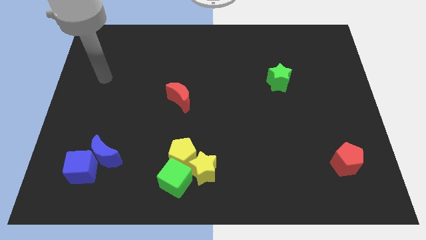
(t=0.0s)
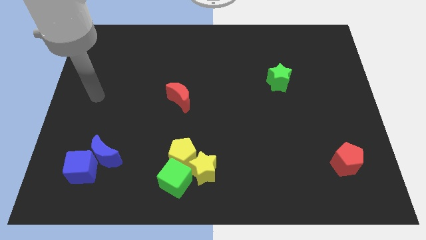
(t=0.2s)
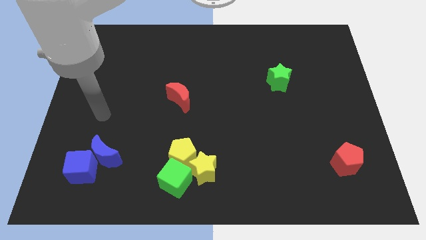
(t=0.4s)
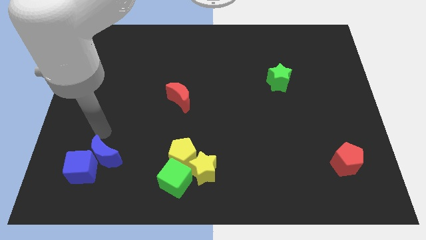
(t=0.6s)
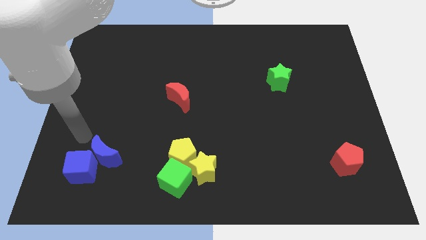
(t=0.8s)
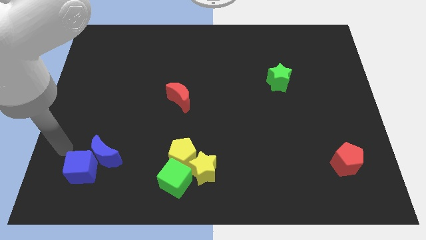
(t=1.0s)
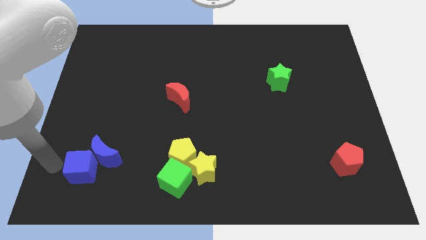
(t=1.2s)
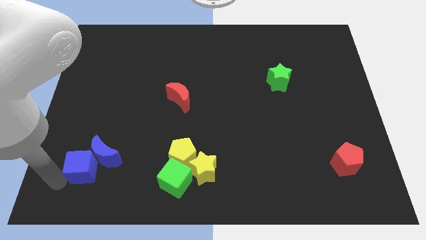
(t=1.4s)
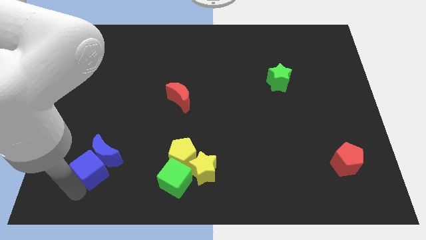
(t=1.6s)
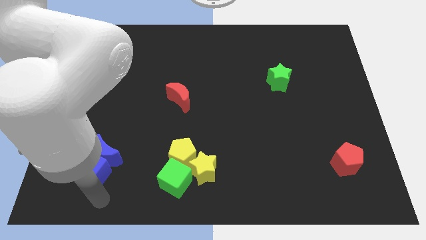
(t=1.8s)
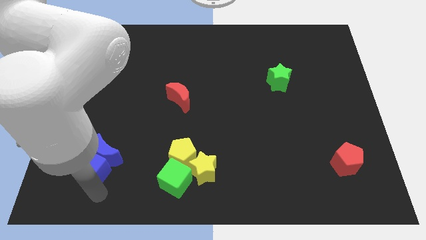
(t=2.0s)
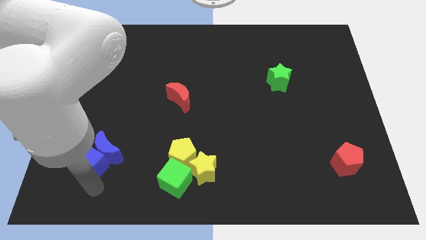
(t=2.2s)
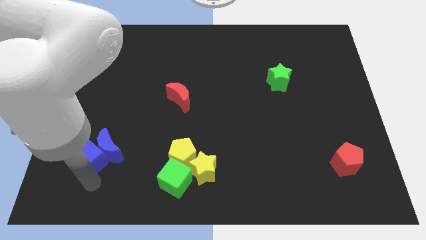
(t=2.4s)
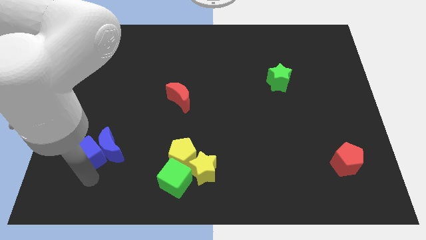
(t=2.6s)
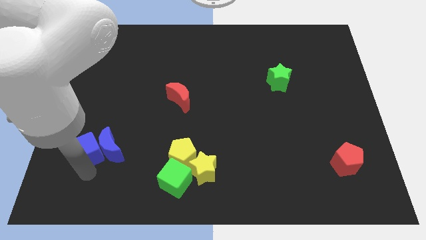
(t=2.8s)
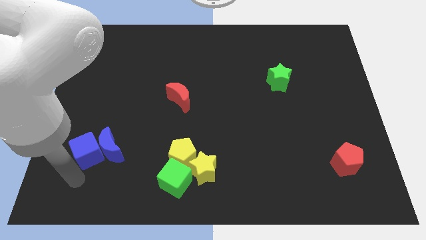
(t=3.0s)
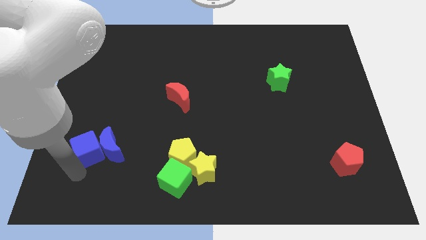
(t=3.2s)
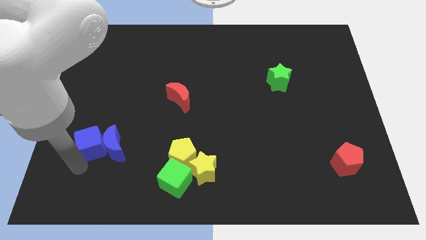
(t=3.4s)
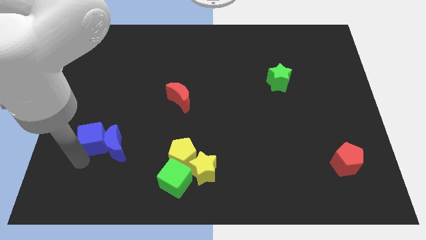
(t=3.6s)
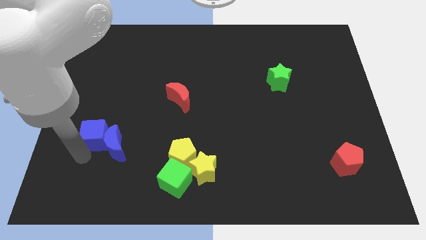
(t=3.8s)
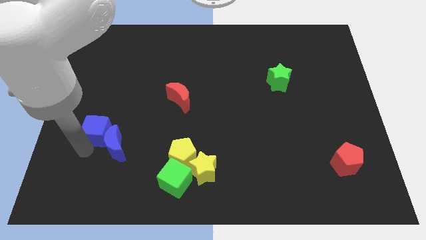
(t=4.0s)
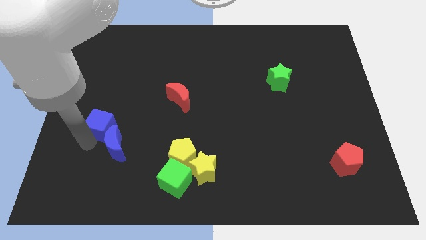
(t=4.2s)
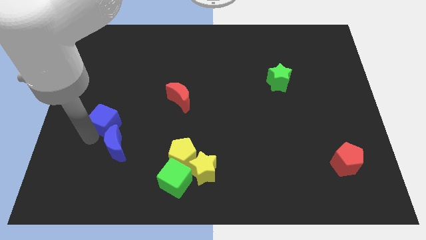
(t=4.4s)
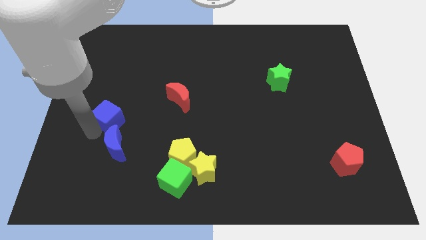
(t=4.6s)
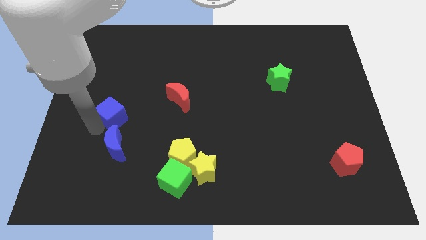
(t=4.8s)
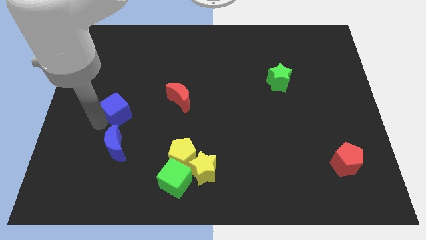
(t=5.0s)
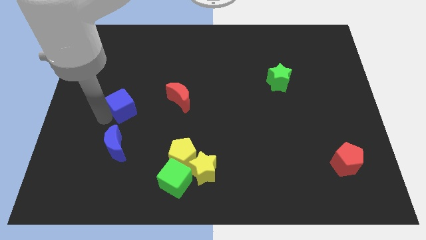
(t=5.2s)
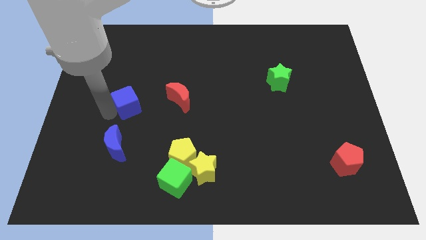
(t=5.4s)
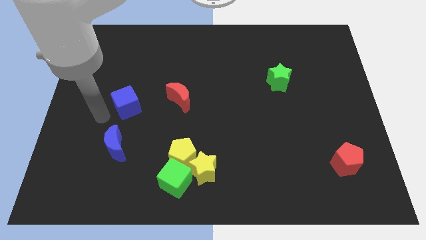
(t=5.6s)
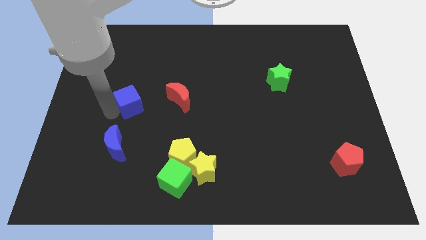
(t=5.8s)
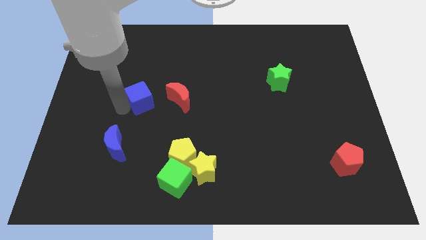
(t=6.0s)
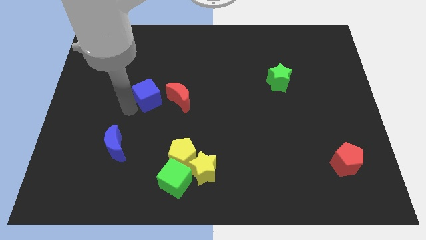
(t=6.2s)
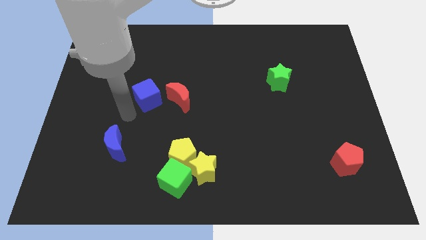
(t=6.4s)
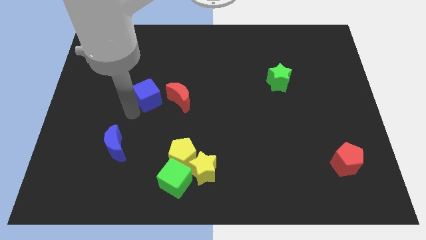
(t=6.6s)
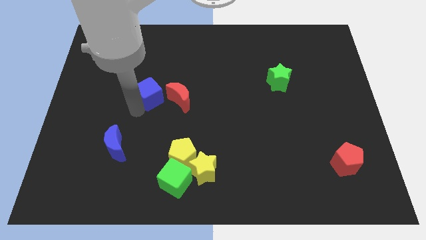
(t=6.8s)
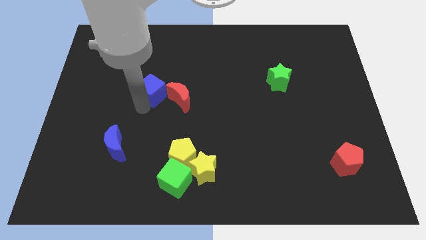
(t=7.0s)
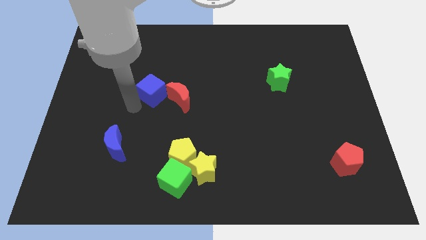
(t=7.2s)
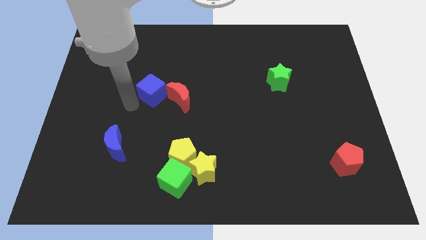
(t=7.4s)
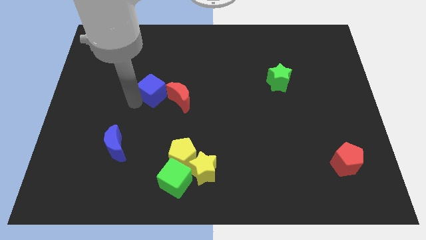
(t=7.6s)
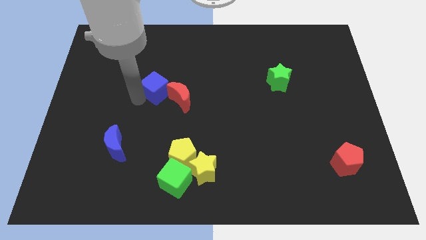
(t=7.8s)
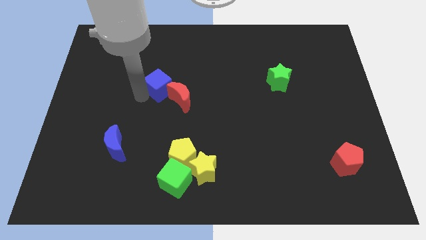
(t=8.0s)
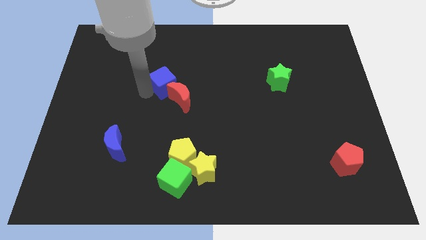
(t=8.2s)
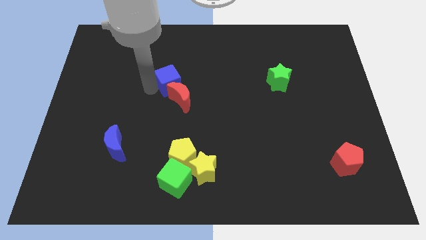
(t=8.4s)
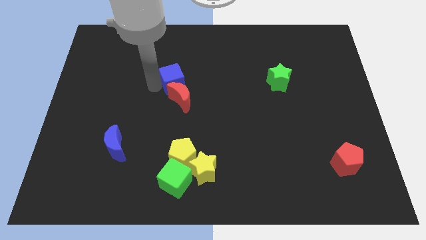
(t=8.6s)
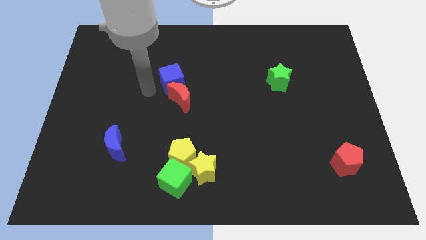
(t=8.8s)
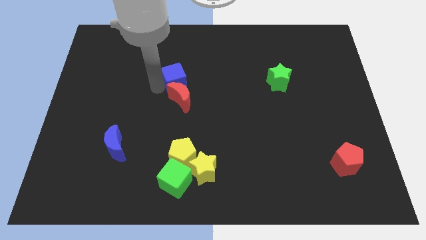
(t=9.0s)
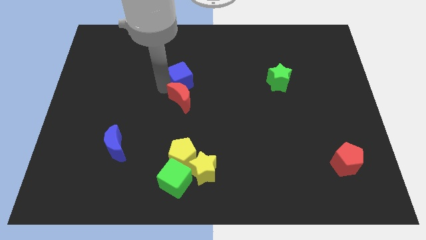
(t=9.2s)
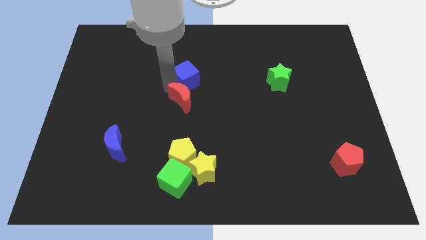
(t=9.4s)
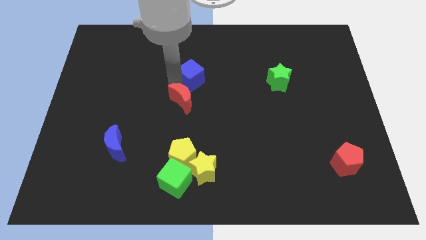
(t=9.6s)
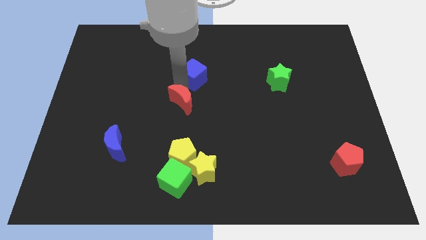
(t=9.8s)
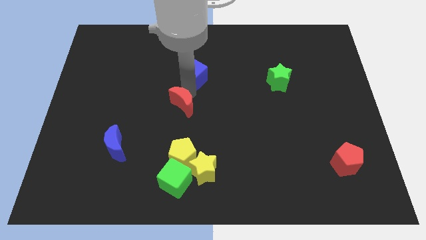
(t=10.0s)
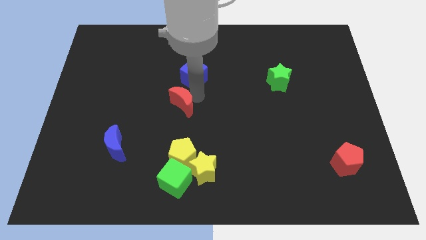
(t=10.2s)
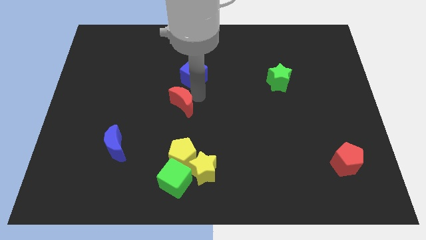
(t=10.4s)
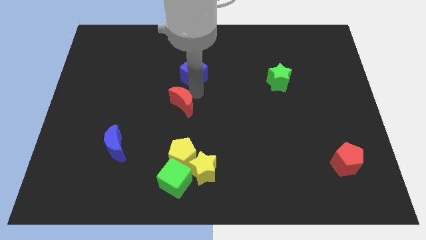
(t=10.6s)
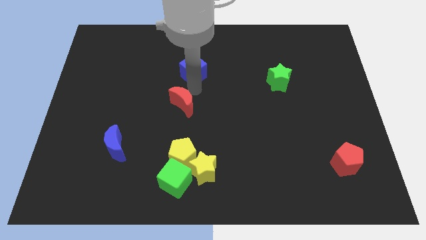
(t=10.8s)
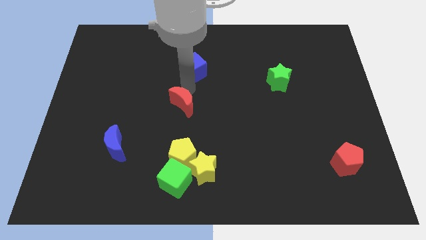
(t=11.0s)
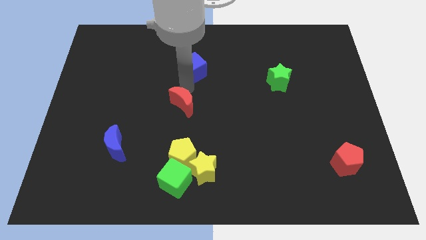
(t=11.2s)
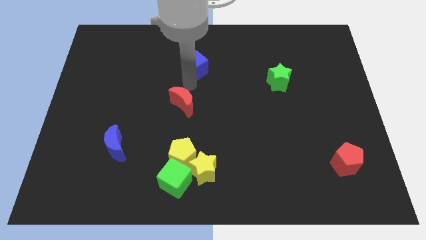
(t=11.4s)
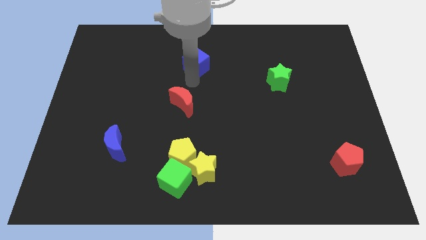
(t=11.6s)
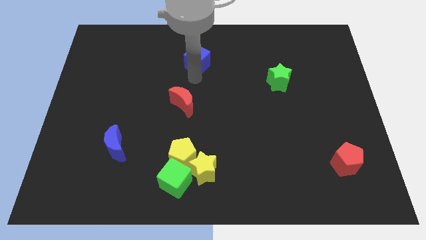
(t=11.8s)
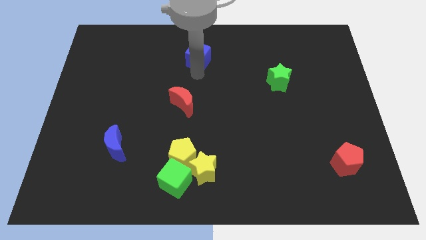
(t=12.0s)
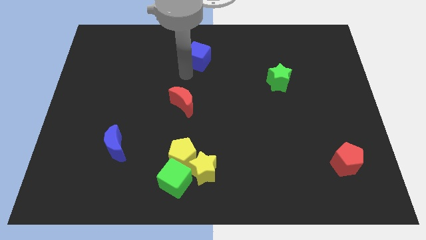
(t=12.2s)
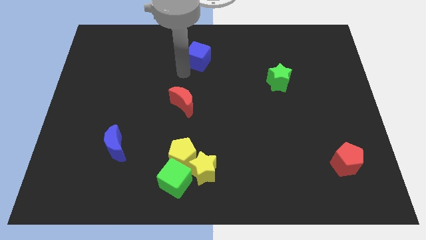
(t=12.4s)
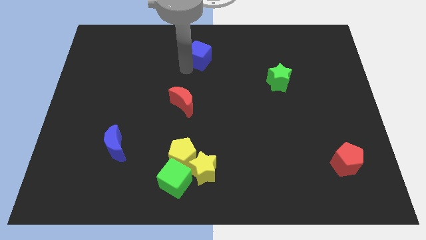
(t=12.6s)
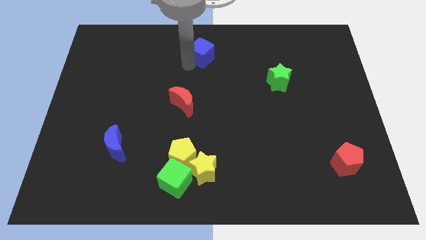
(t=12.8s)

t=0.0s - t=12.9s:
move the blue cube to the top

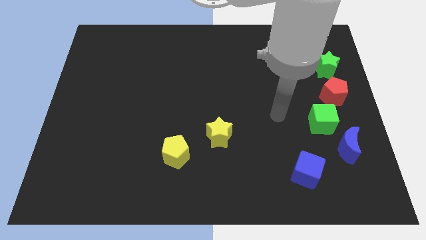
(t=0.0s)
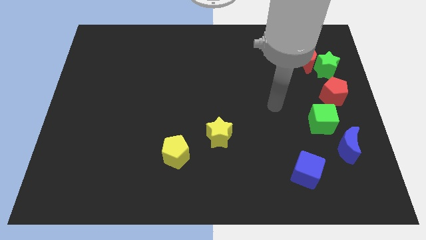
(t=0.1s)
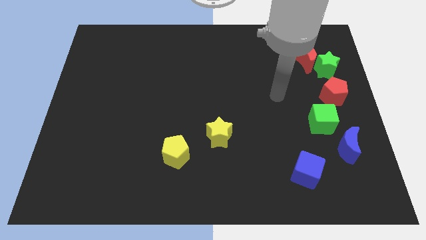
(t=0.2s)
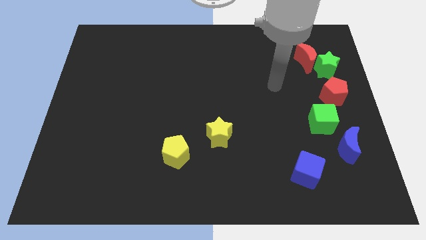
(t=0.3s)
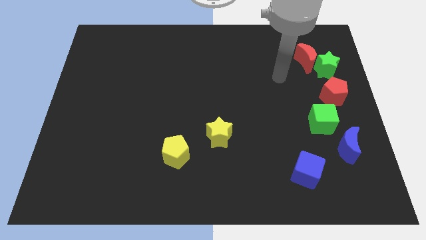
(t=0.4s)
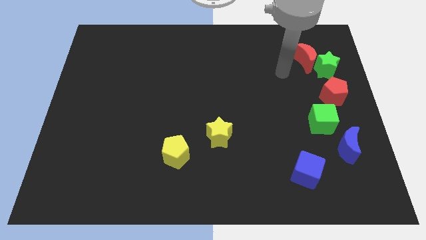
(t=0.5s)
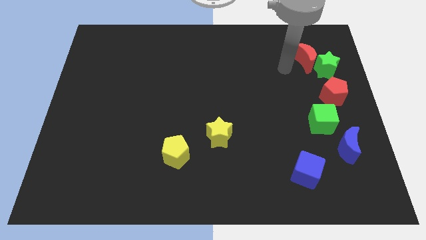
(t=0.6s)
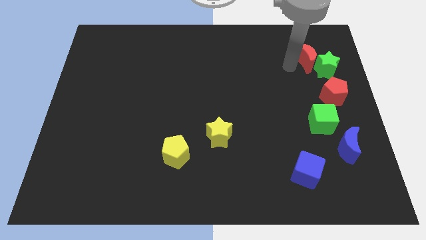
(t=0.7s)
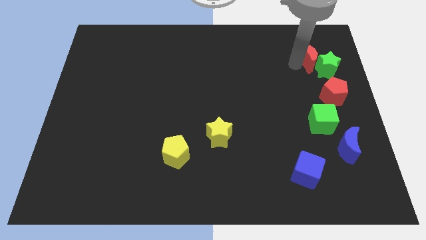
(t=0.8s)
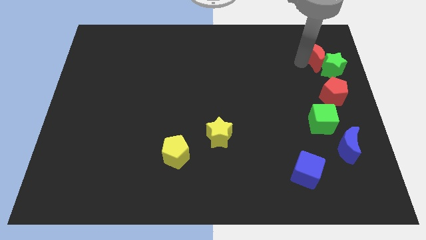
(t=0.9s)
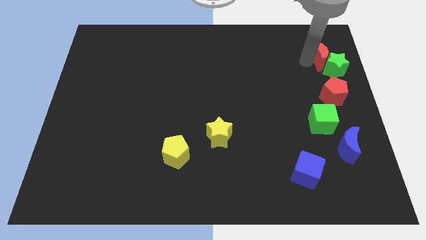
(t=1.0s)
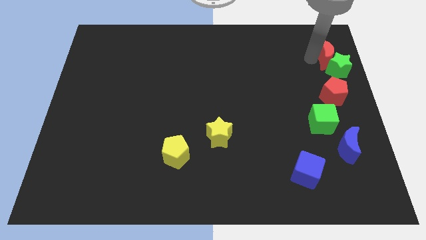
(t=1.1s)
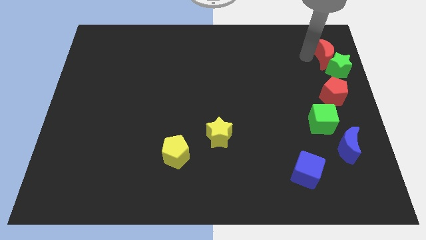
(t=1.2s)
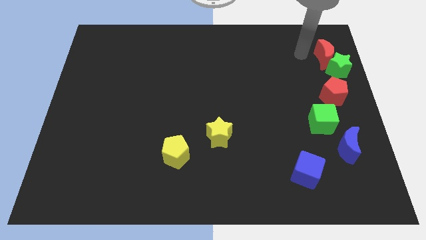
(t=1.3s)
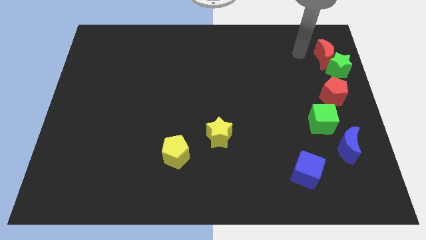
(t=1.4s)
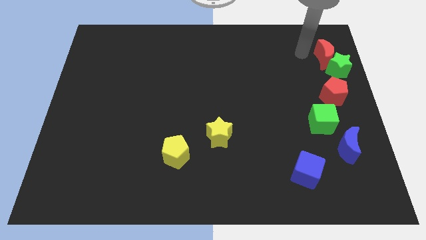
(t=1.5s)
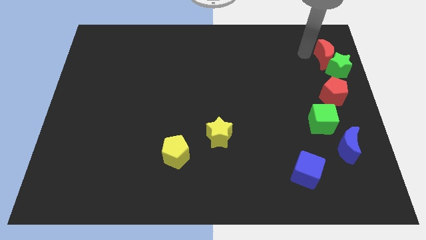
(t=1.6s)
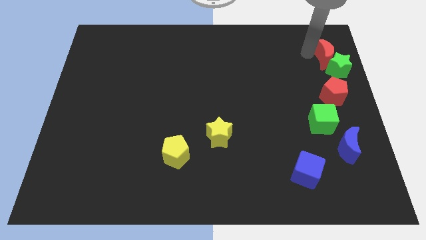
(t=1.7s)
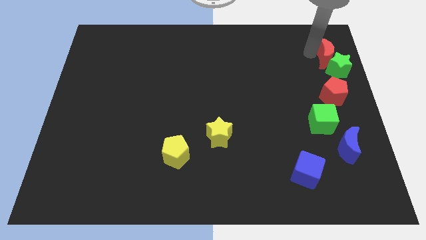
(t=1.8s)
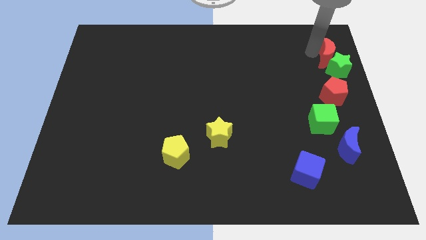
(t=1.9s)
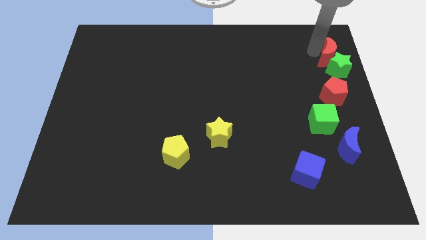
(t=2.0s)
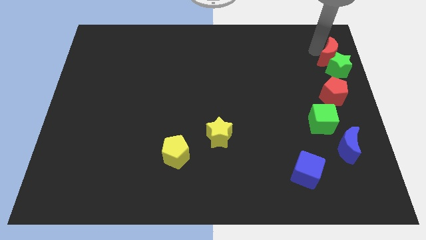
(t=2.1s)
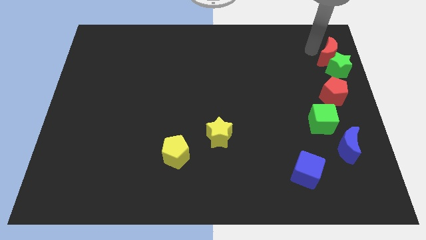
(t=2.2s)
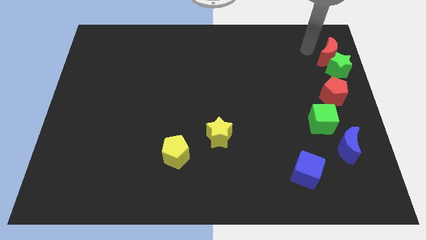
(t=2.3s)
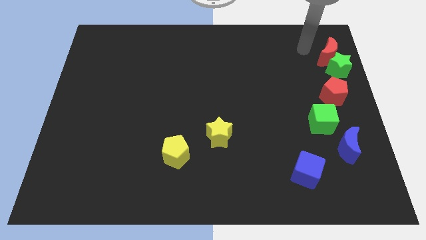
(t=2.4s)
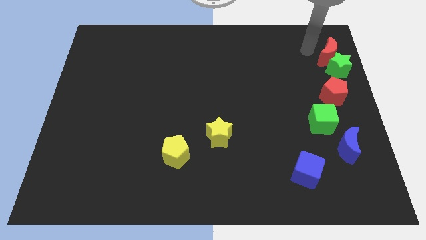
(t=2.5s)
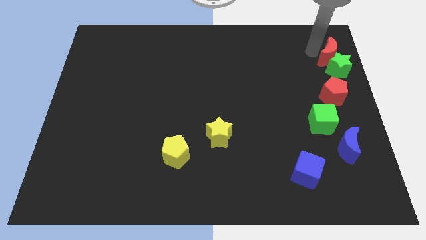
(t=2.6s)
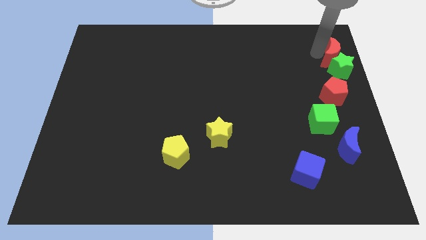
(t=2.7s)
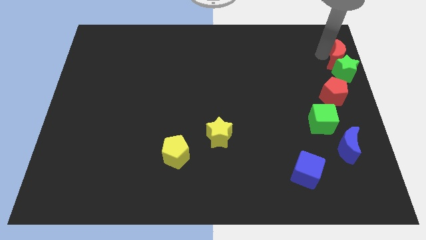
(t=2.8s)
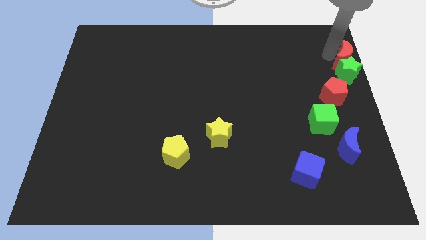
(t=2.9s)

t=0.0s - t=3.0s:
move the red moon to the center right
